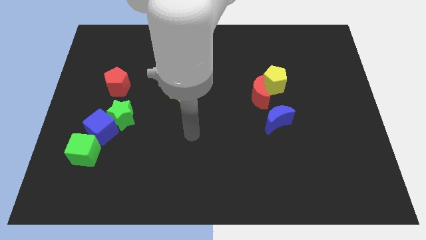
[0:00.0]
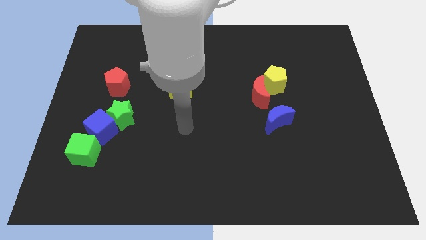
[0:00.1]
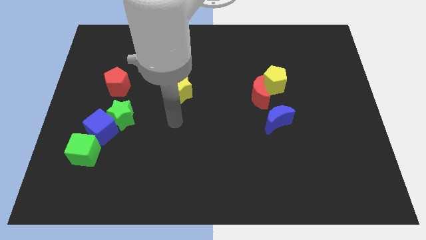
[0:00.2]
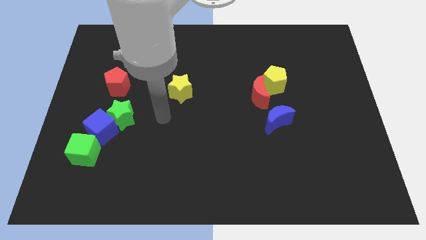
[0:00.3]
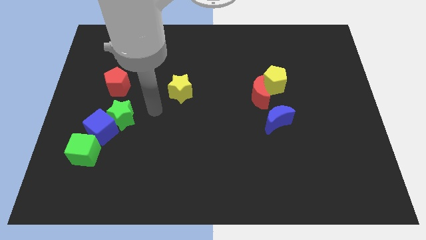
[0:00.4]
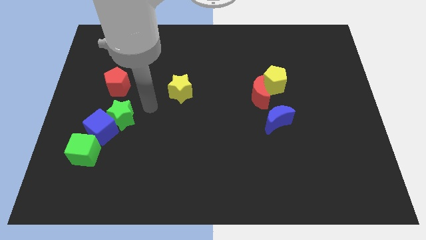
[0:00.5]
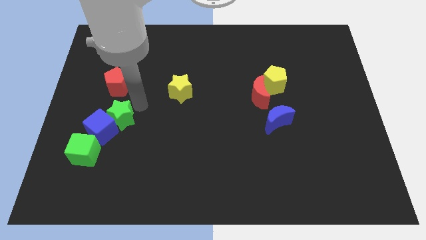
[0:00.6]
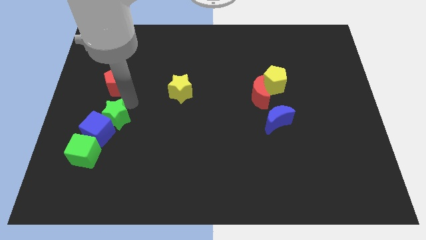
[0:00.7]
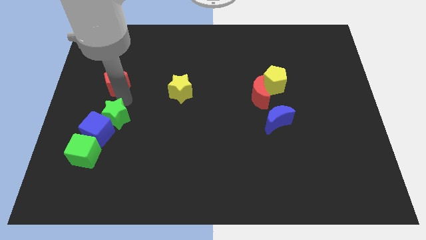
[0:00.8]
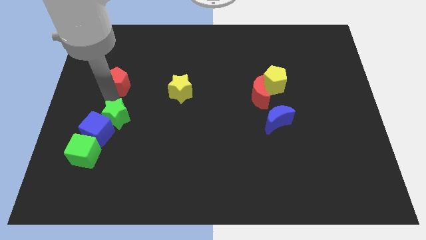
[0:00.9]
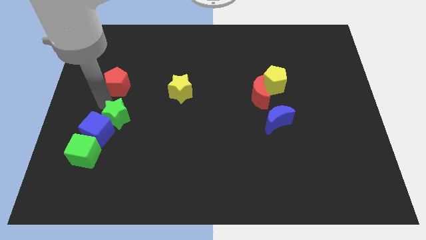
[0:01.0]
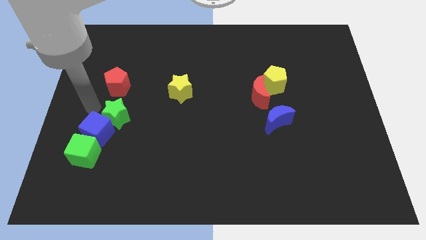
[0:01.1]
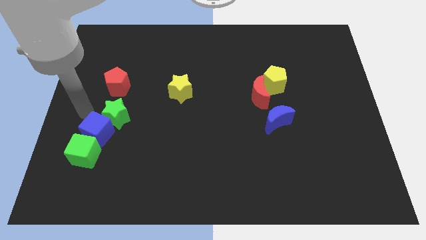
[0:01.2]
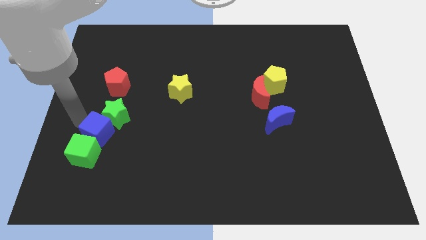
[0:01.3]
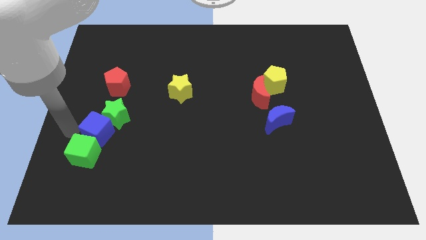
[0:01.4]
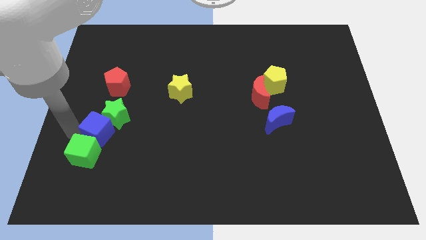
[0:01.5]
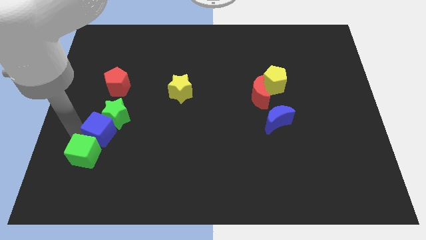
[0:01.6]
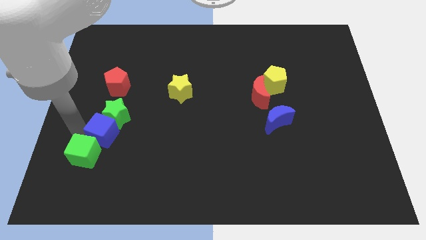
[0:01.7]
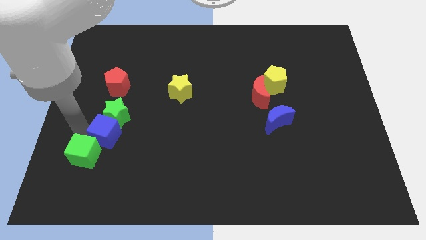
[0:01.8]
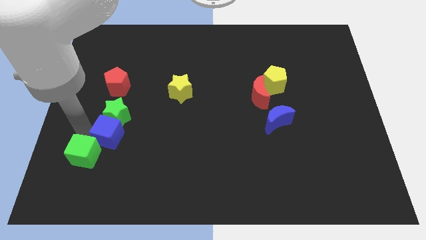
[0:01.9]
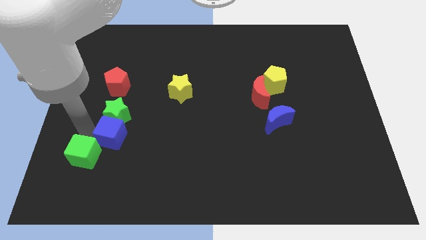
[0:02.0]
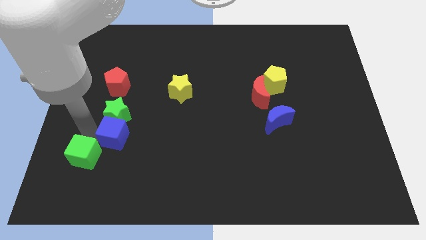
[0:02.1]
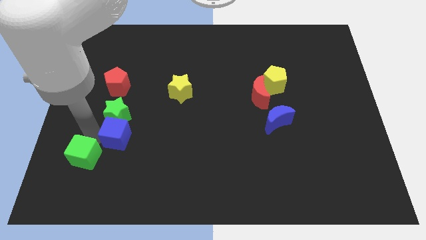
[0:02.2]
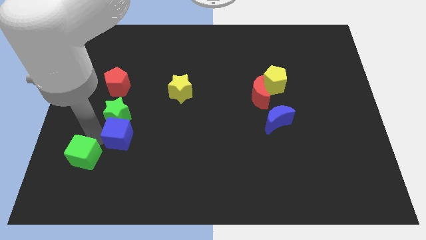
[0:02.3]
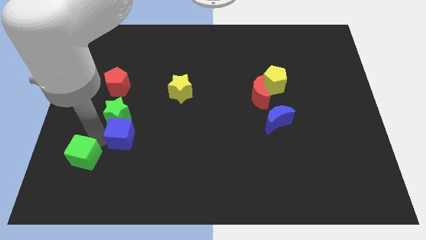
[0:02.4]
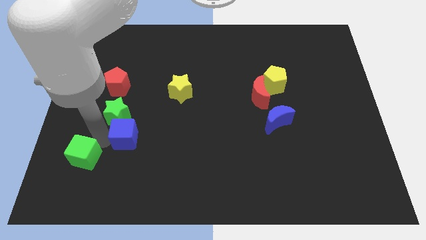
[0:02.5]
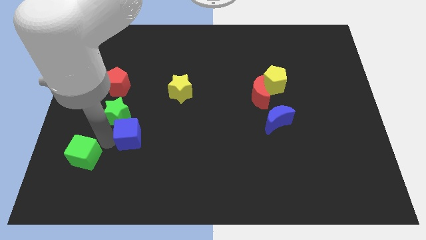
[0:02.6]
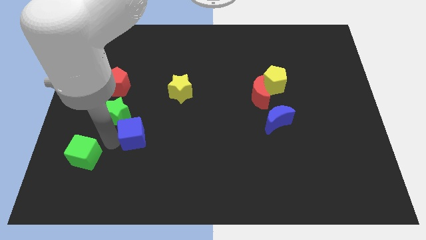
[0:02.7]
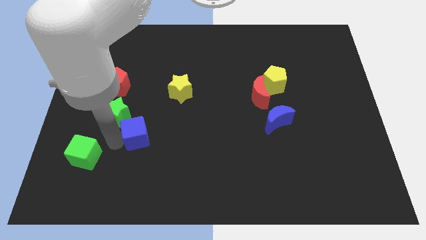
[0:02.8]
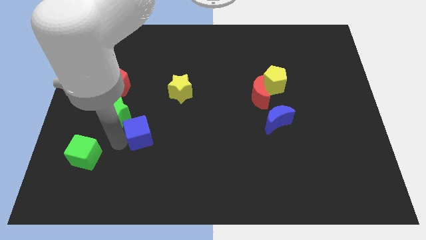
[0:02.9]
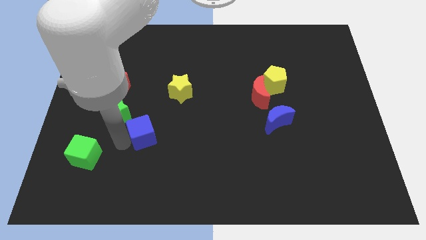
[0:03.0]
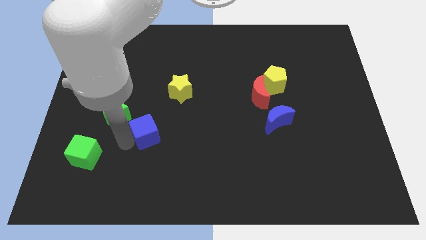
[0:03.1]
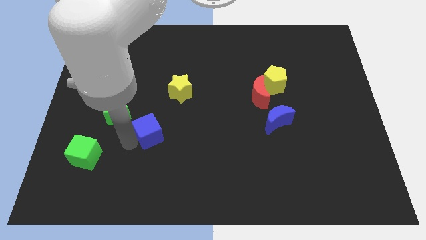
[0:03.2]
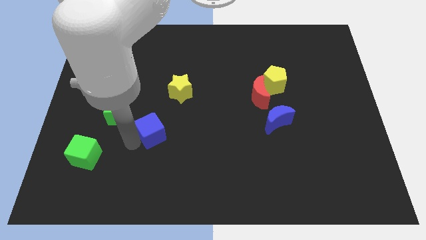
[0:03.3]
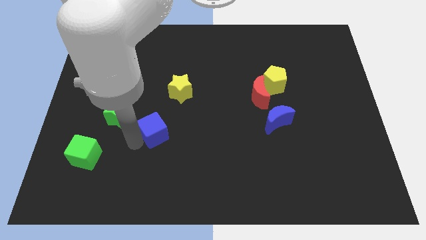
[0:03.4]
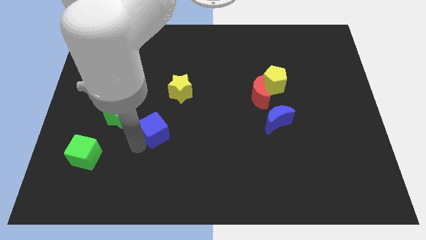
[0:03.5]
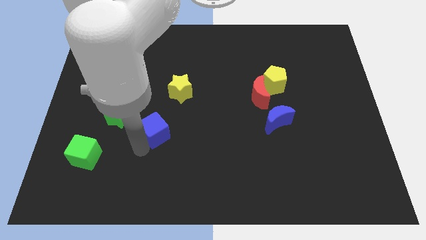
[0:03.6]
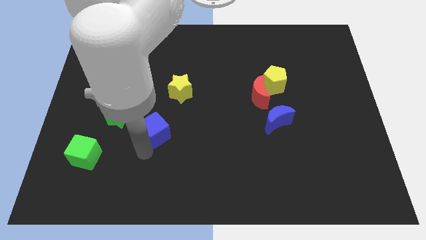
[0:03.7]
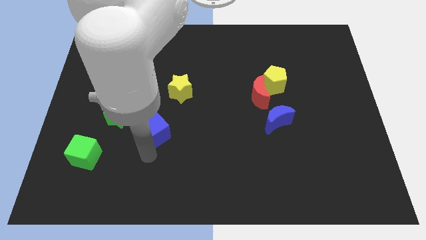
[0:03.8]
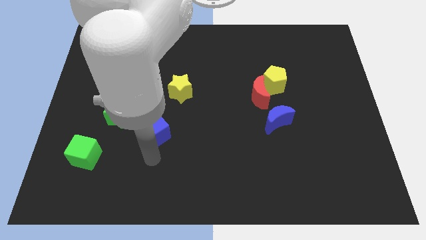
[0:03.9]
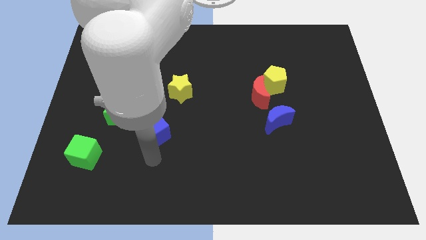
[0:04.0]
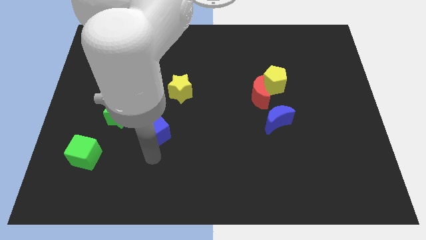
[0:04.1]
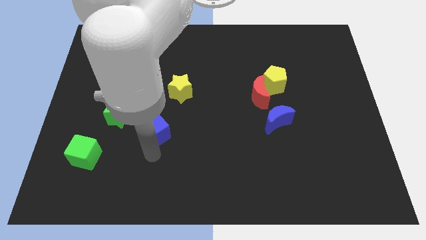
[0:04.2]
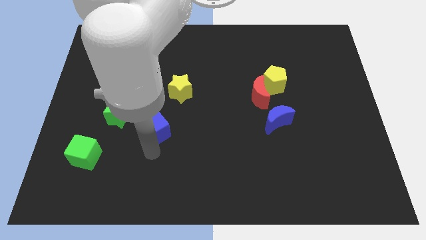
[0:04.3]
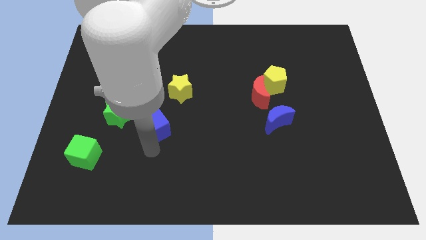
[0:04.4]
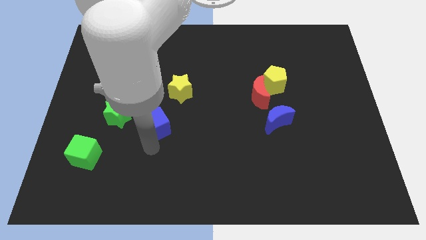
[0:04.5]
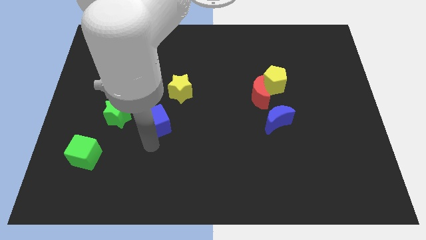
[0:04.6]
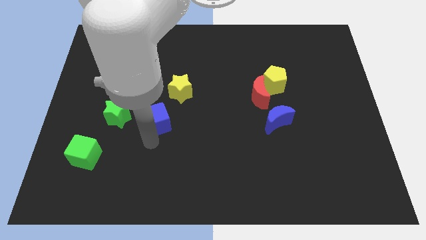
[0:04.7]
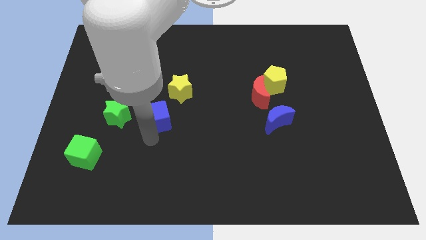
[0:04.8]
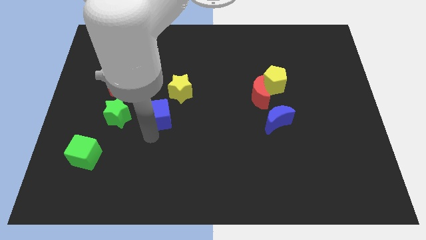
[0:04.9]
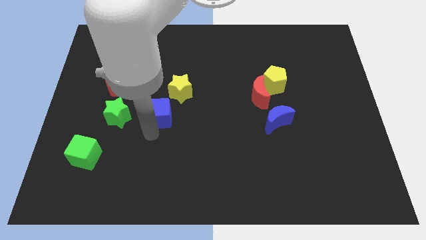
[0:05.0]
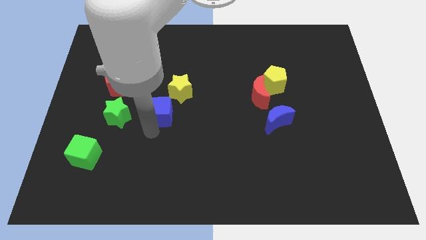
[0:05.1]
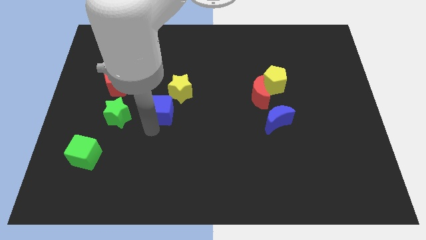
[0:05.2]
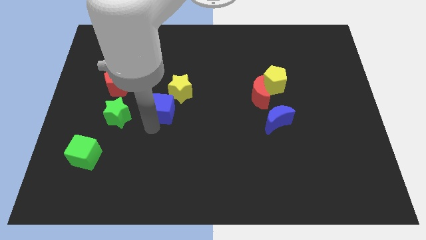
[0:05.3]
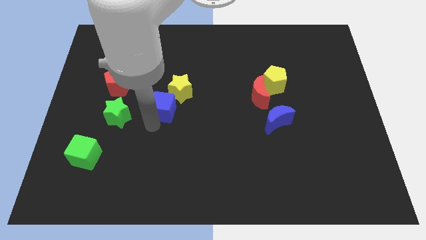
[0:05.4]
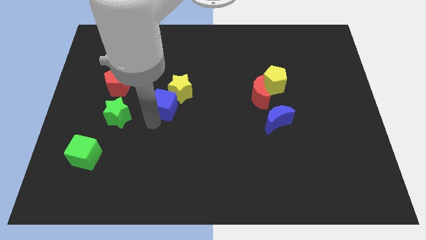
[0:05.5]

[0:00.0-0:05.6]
move the blue cube close to the yellow star

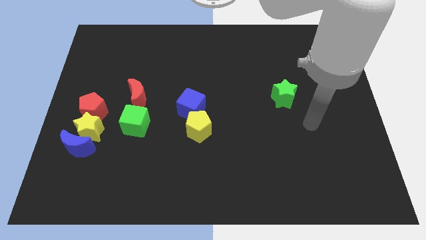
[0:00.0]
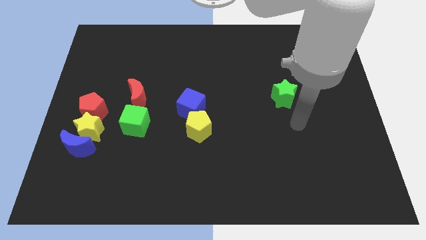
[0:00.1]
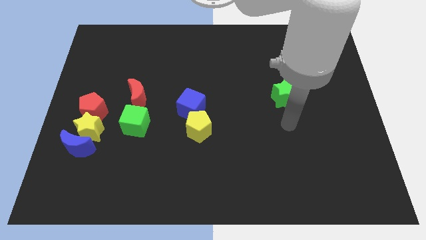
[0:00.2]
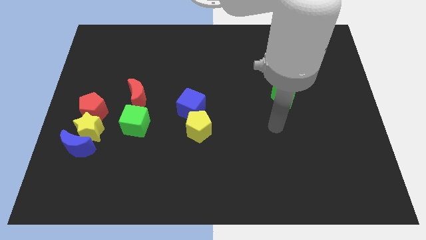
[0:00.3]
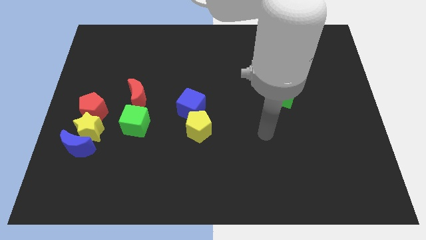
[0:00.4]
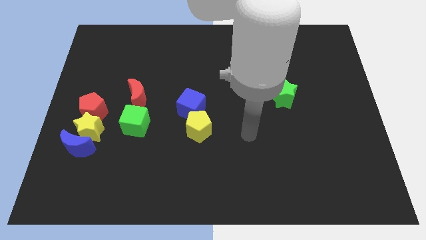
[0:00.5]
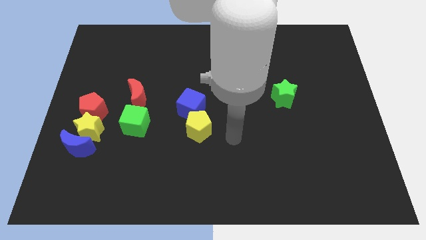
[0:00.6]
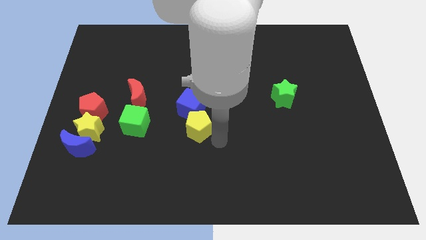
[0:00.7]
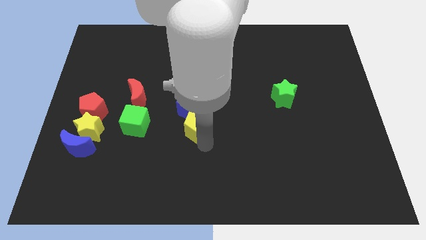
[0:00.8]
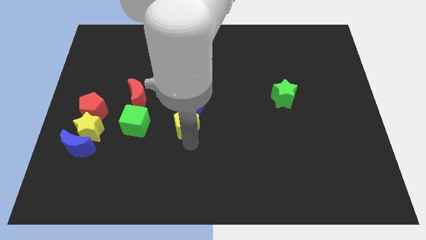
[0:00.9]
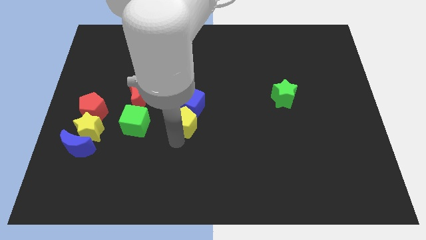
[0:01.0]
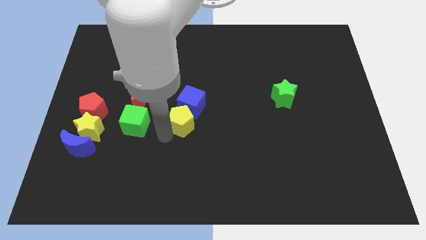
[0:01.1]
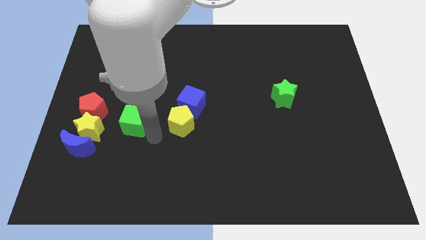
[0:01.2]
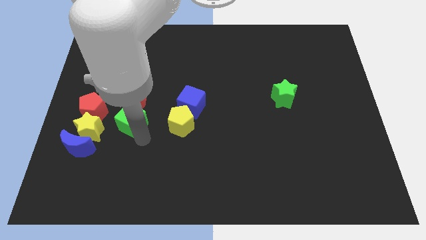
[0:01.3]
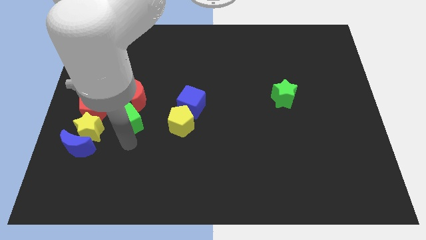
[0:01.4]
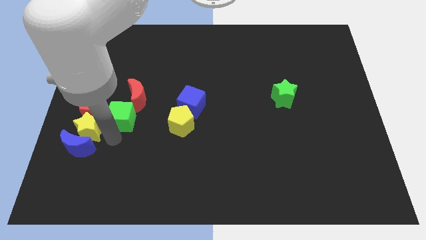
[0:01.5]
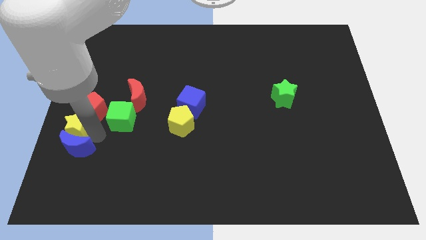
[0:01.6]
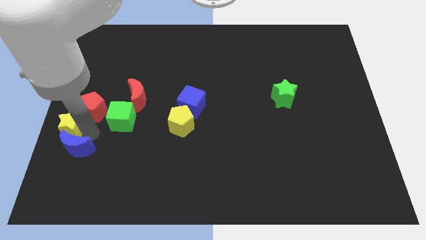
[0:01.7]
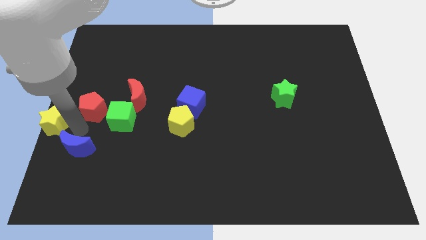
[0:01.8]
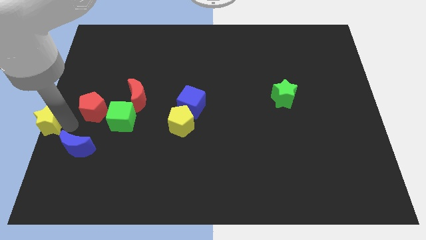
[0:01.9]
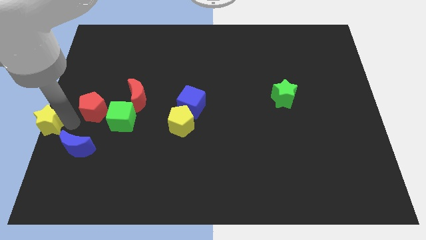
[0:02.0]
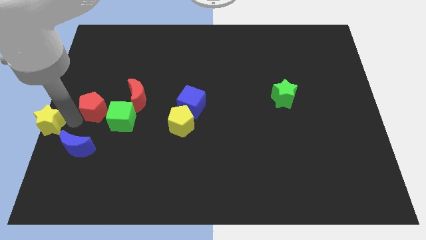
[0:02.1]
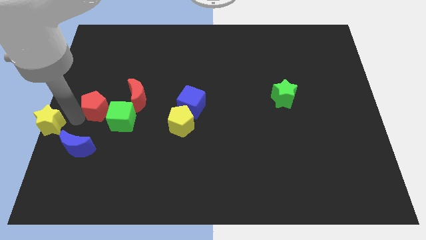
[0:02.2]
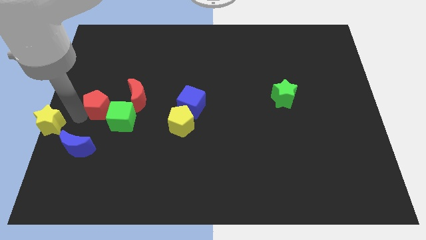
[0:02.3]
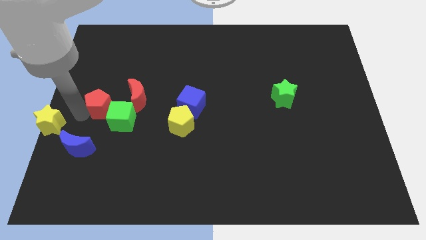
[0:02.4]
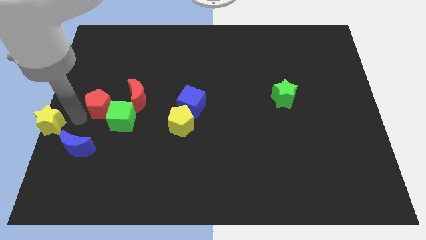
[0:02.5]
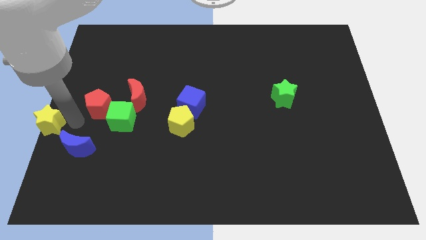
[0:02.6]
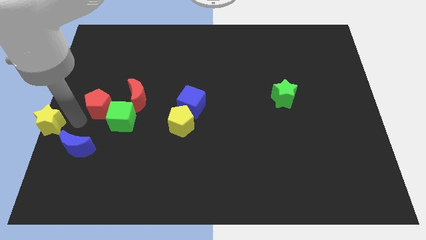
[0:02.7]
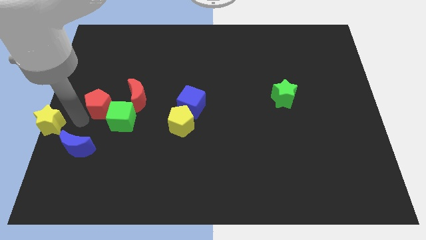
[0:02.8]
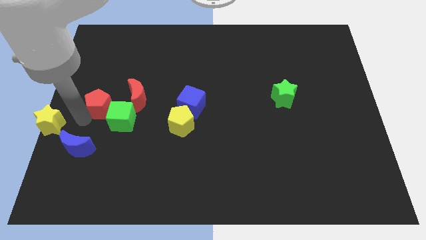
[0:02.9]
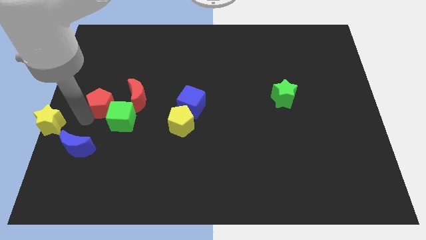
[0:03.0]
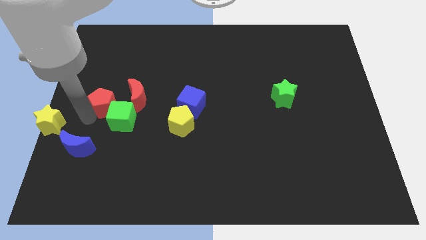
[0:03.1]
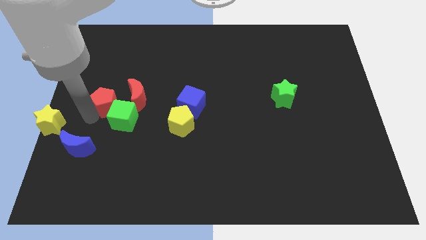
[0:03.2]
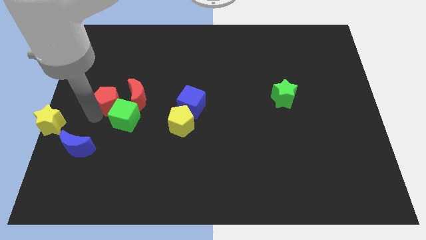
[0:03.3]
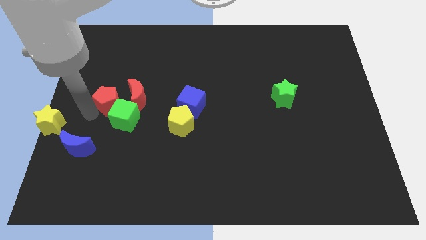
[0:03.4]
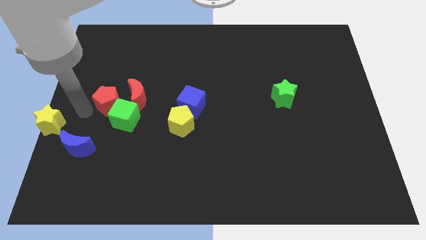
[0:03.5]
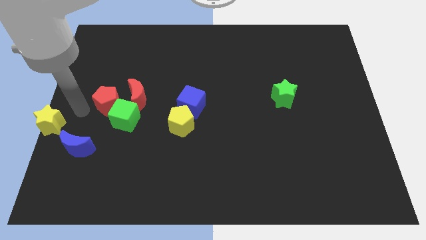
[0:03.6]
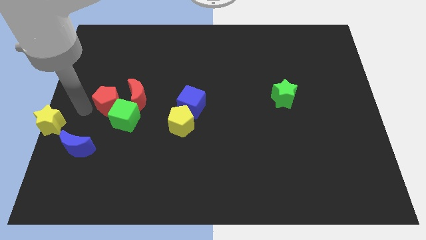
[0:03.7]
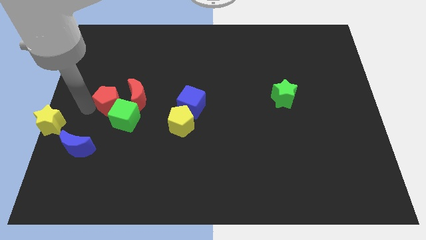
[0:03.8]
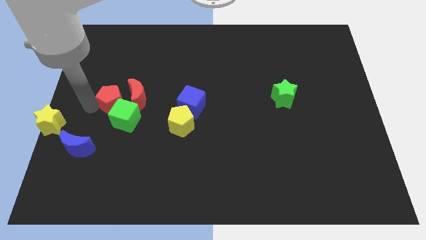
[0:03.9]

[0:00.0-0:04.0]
move the red pentagon close to the red moon
